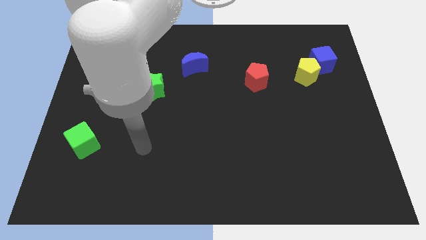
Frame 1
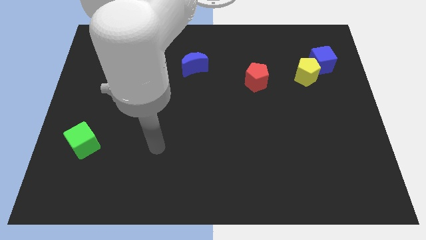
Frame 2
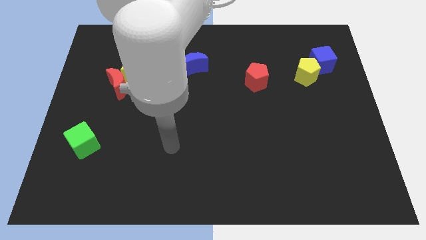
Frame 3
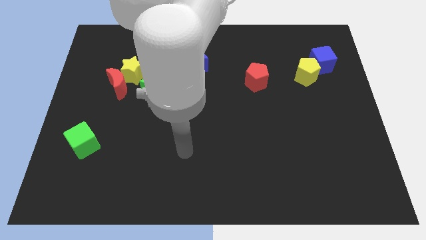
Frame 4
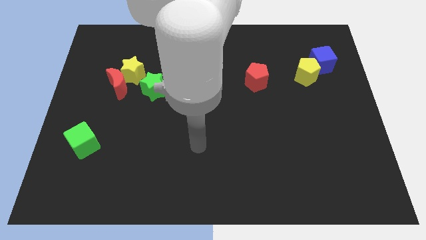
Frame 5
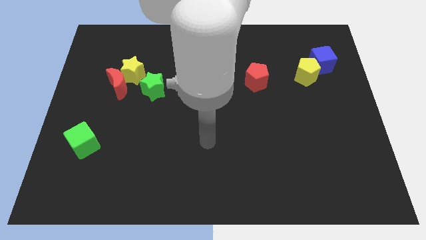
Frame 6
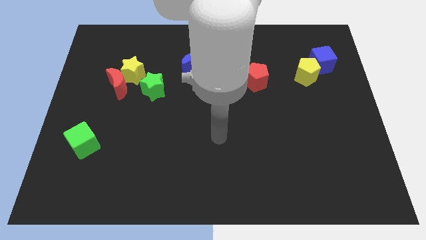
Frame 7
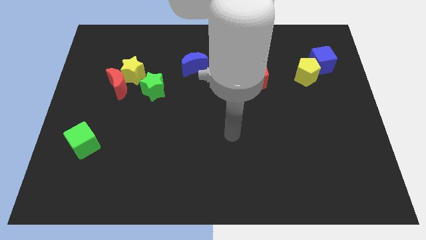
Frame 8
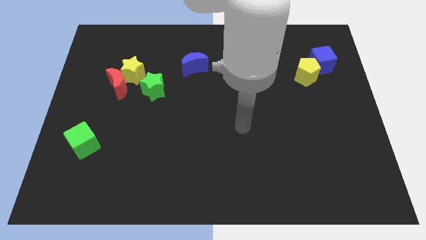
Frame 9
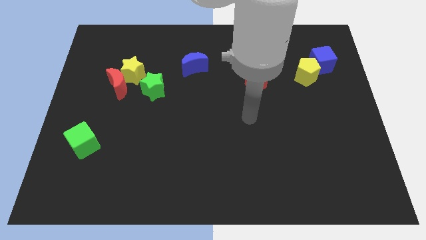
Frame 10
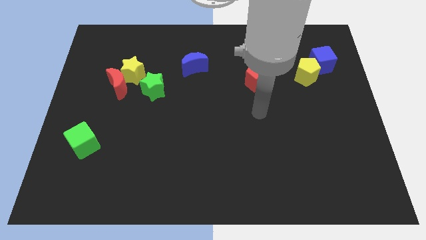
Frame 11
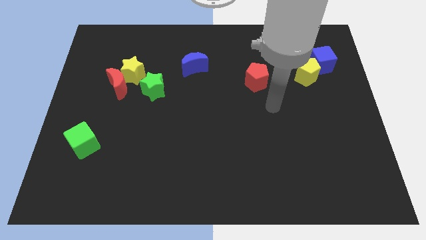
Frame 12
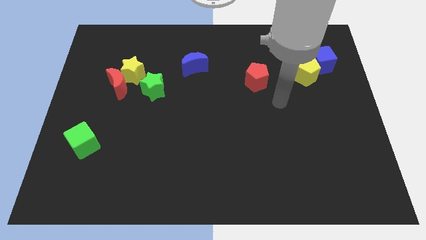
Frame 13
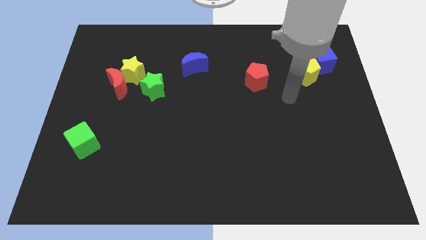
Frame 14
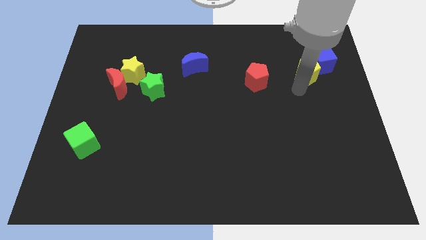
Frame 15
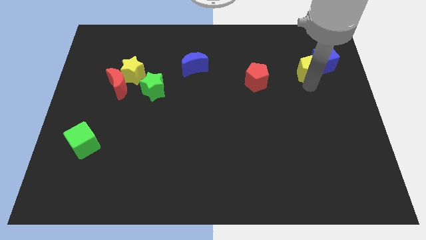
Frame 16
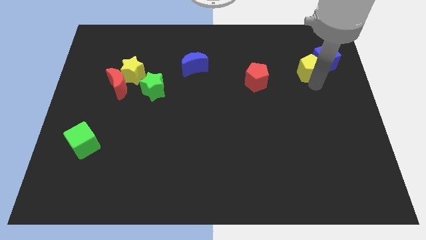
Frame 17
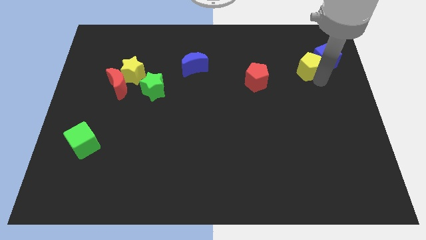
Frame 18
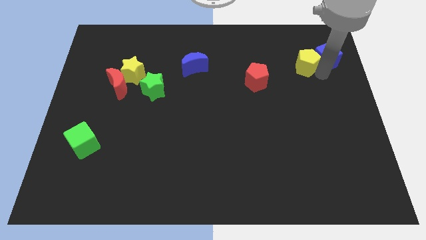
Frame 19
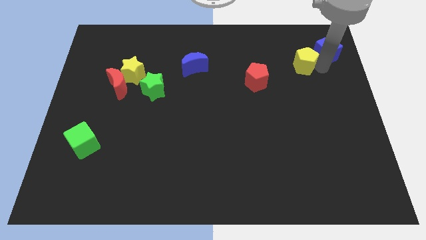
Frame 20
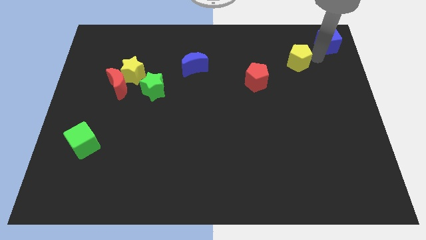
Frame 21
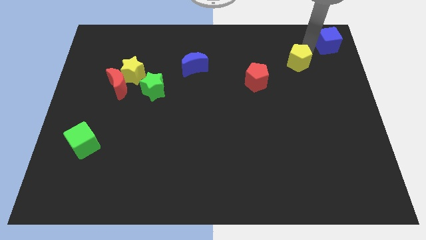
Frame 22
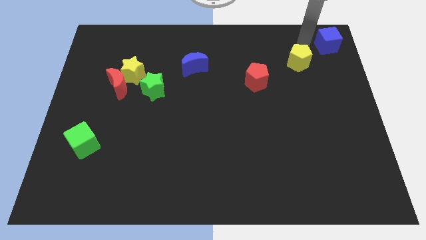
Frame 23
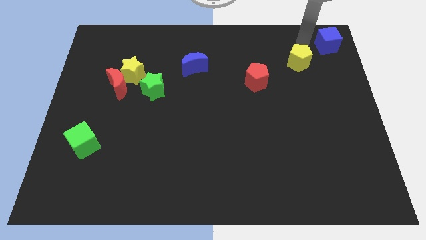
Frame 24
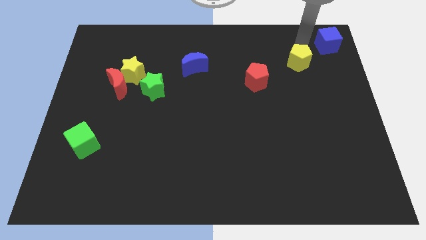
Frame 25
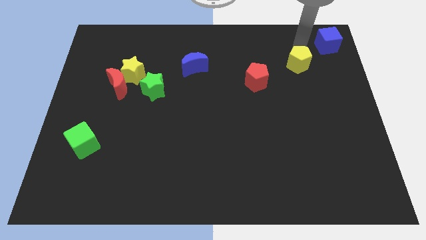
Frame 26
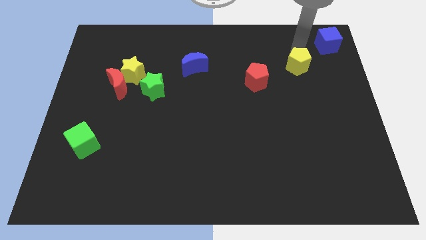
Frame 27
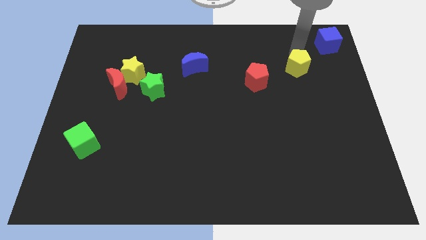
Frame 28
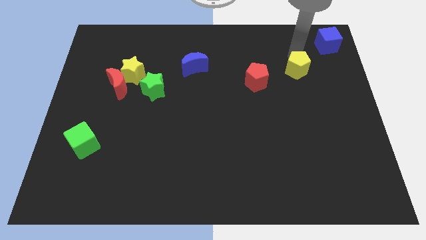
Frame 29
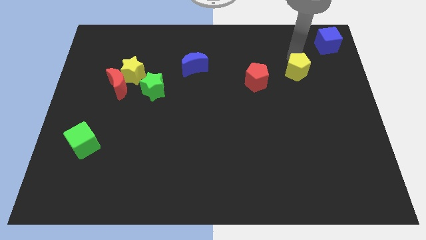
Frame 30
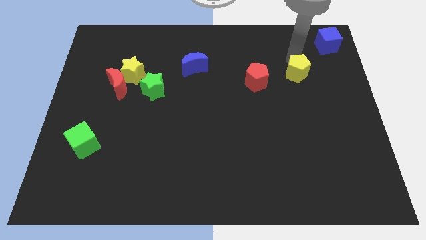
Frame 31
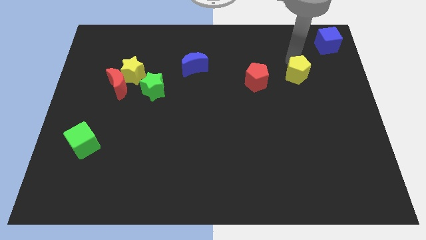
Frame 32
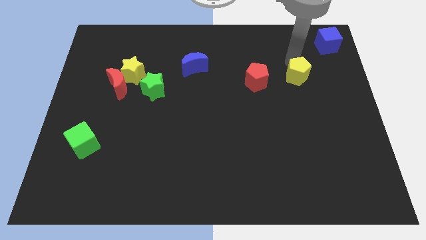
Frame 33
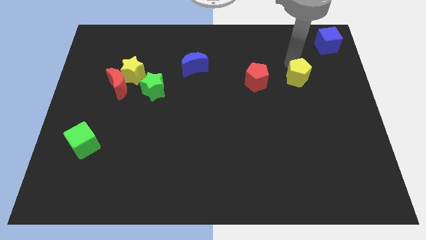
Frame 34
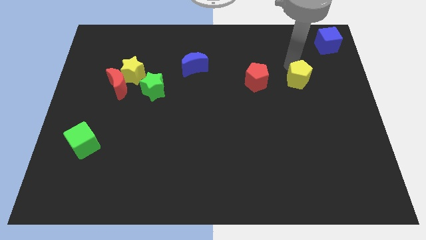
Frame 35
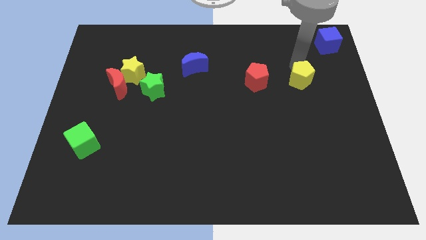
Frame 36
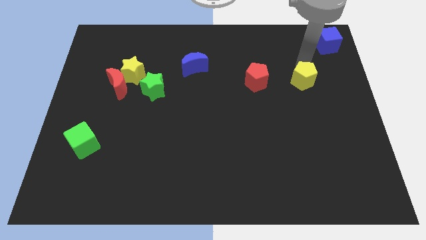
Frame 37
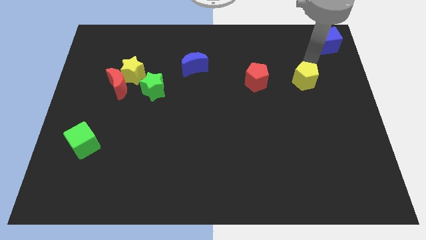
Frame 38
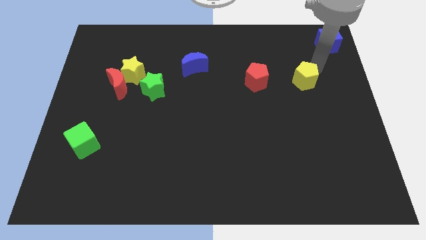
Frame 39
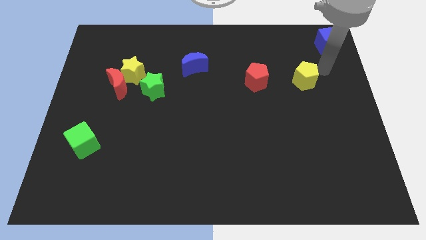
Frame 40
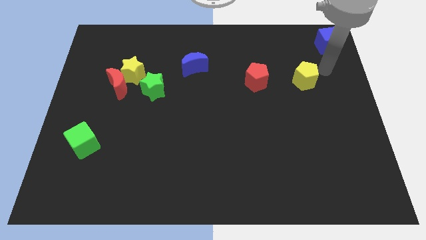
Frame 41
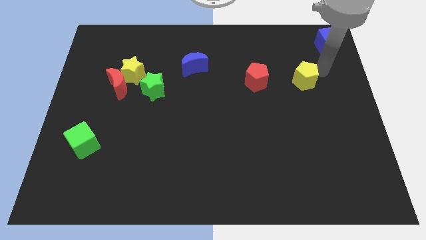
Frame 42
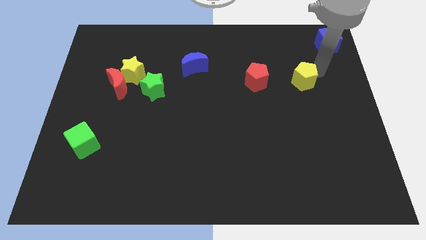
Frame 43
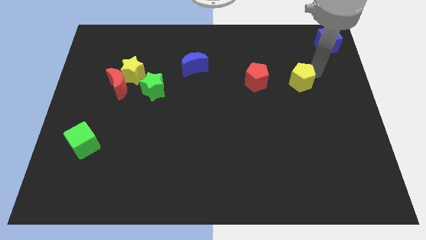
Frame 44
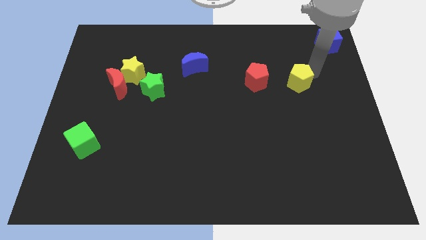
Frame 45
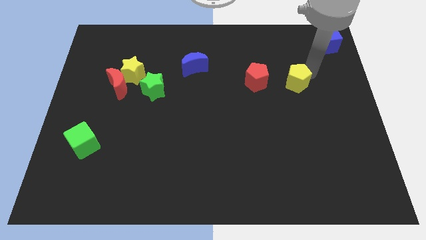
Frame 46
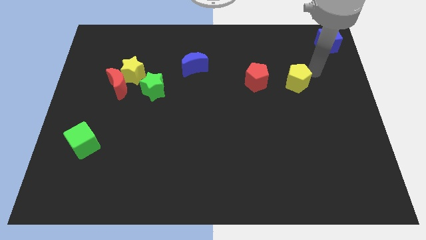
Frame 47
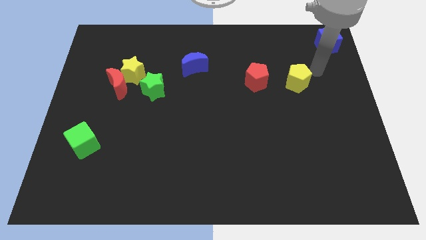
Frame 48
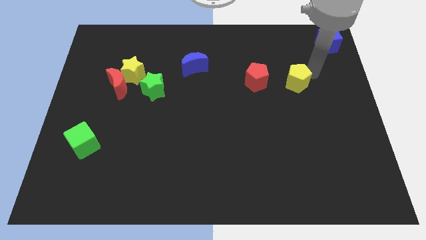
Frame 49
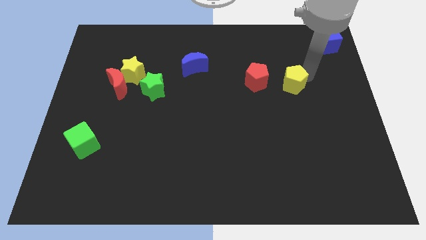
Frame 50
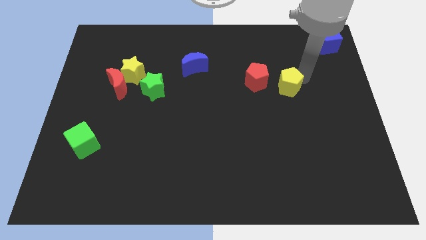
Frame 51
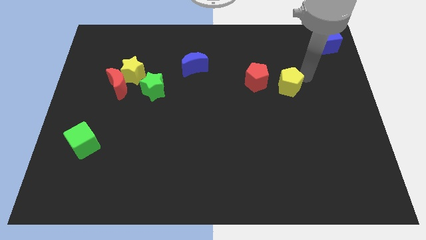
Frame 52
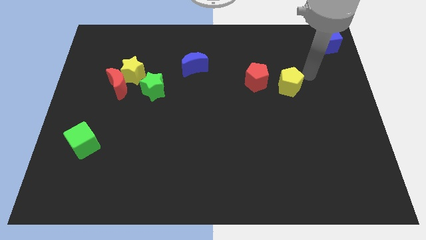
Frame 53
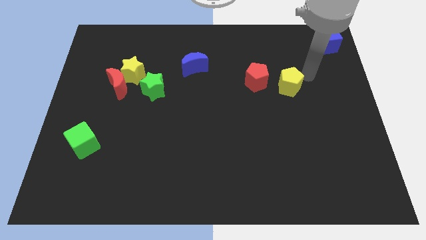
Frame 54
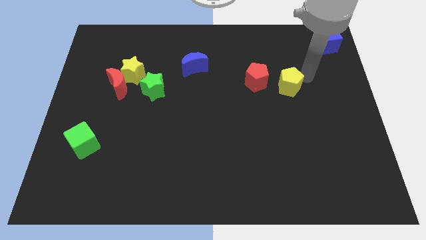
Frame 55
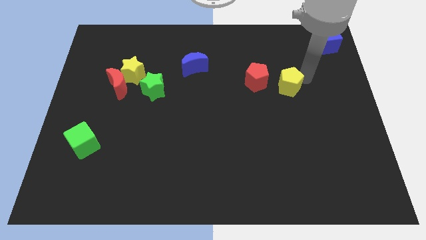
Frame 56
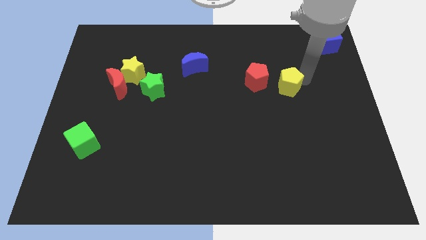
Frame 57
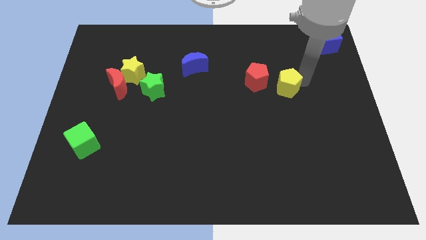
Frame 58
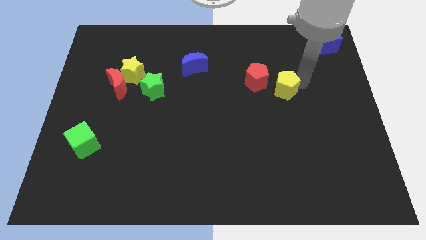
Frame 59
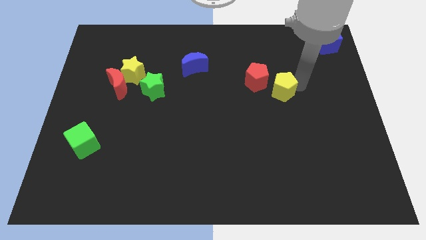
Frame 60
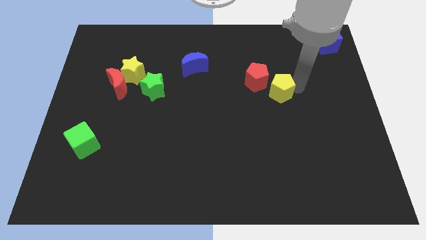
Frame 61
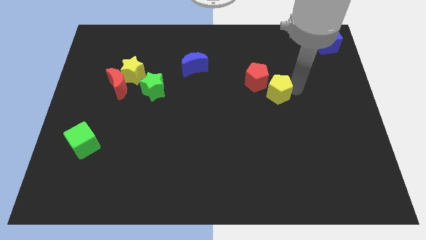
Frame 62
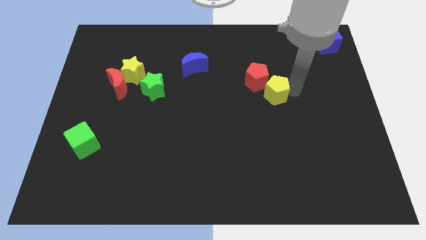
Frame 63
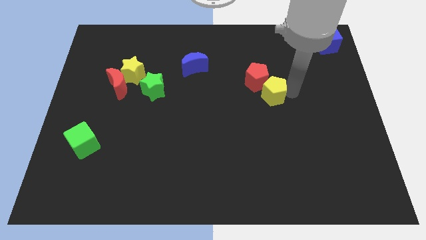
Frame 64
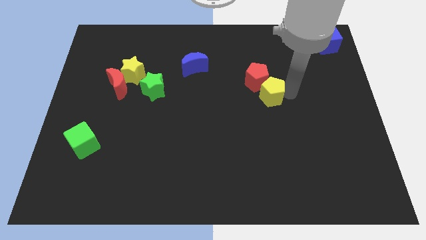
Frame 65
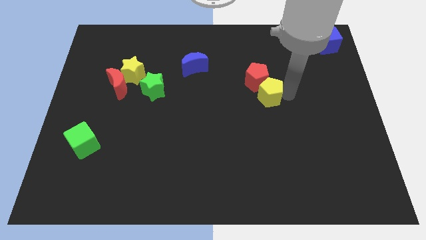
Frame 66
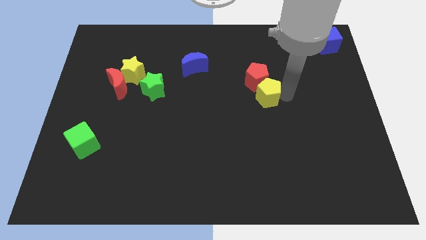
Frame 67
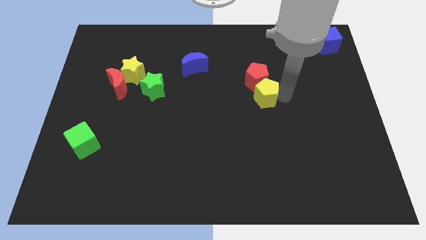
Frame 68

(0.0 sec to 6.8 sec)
put the yellow pentagon to the center
